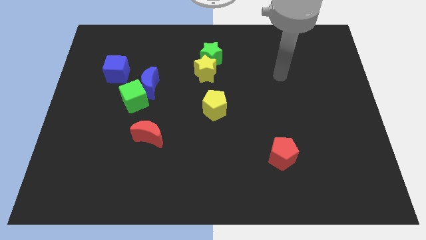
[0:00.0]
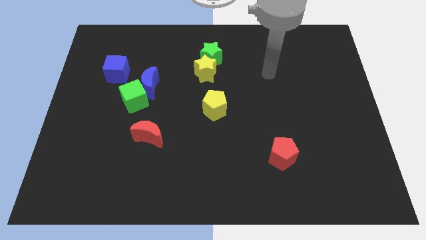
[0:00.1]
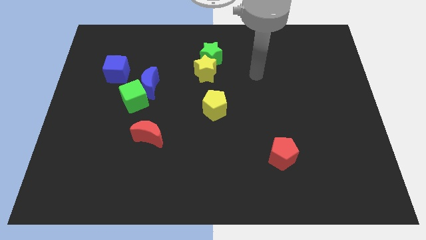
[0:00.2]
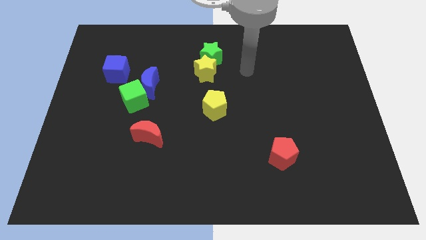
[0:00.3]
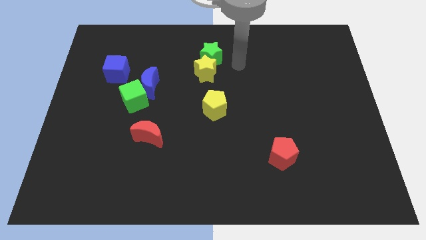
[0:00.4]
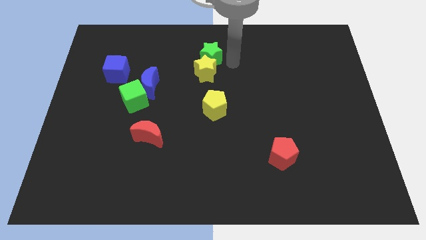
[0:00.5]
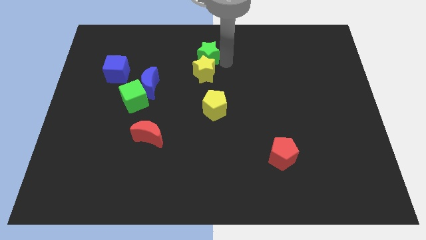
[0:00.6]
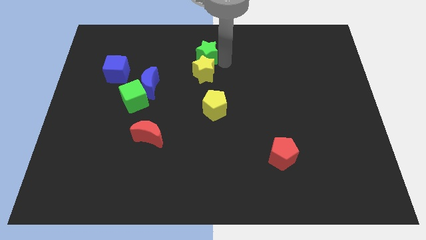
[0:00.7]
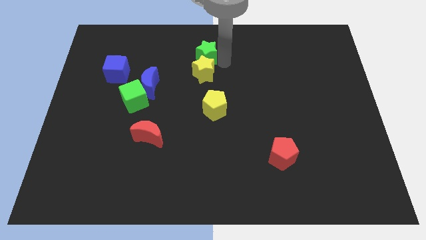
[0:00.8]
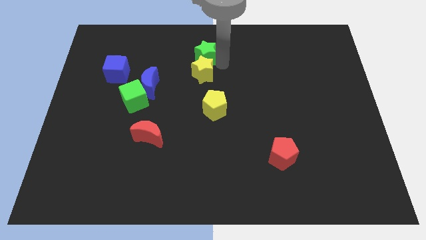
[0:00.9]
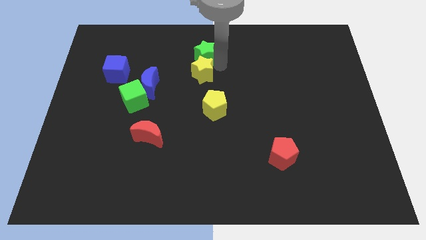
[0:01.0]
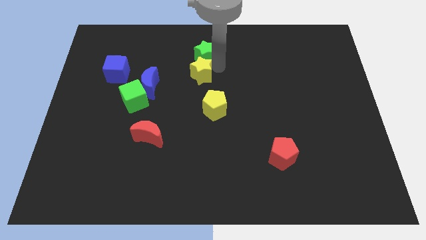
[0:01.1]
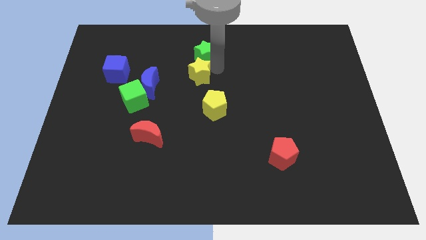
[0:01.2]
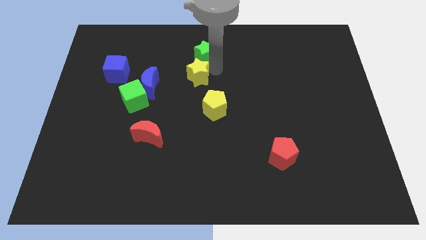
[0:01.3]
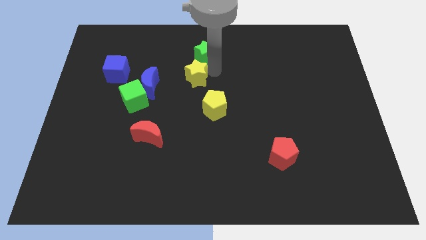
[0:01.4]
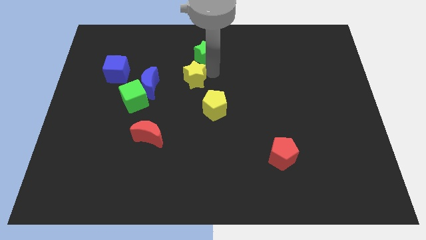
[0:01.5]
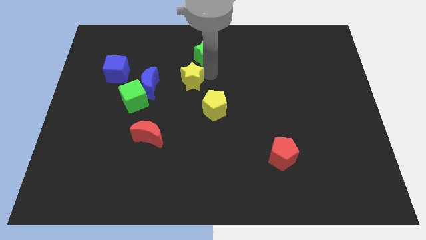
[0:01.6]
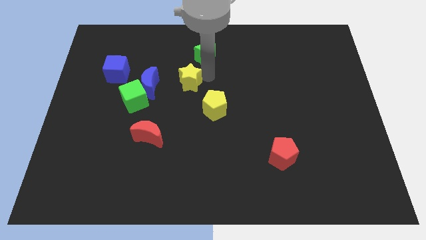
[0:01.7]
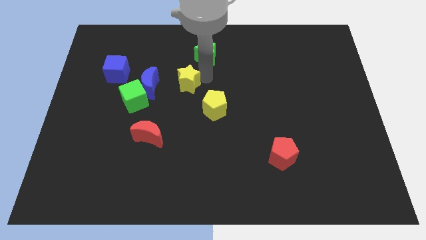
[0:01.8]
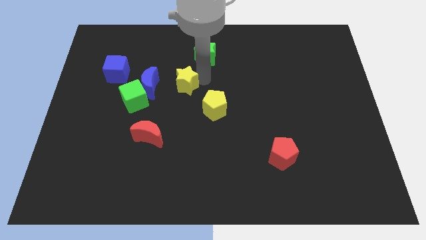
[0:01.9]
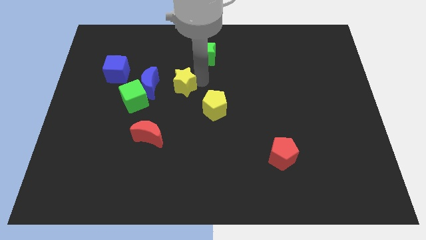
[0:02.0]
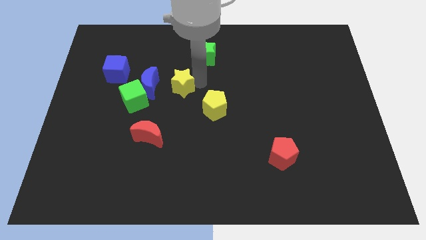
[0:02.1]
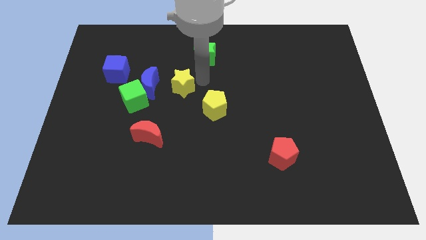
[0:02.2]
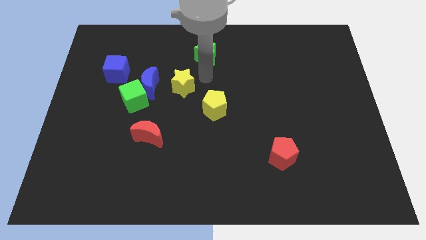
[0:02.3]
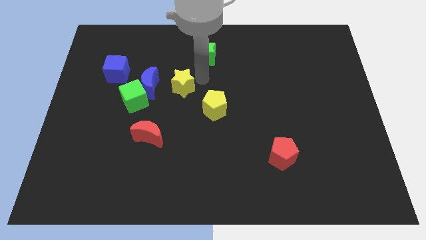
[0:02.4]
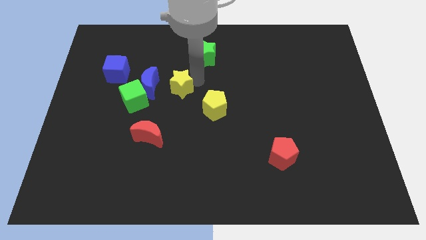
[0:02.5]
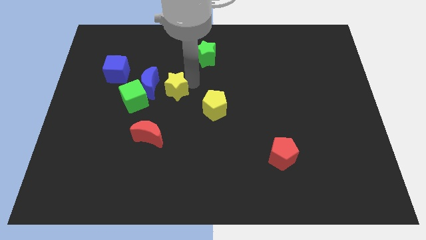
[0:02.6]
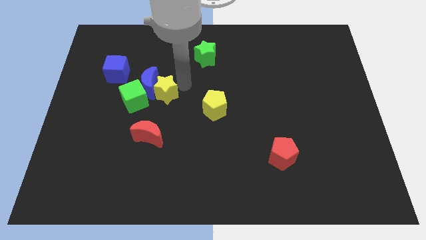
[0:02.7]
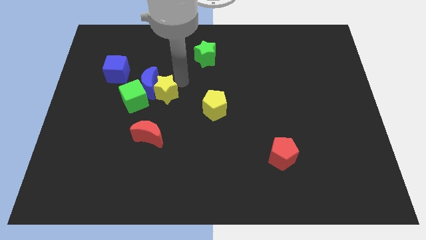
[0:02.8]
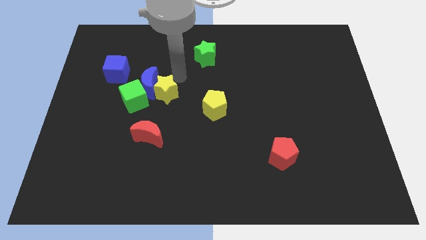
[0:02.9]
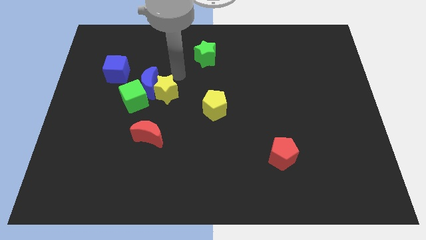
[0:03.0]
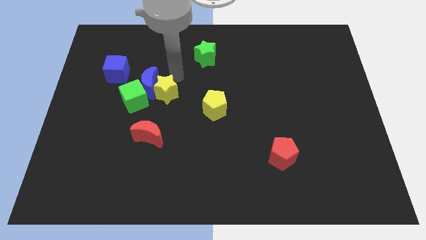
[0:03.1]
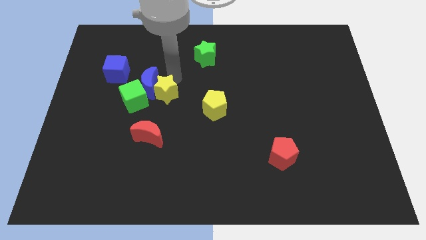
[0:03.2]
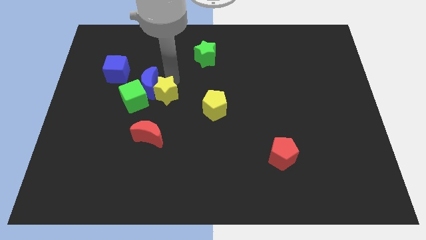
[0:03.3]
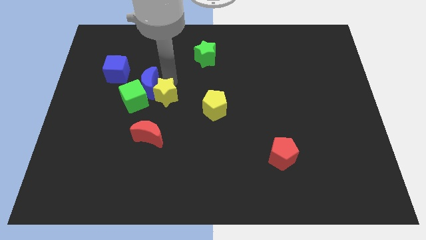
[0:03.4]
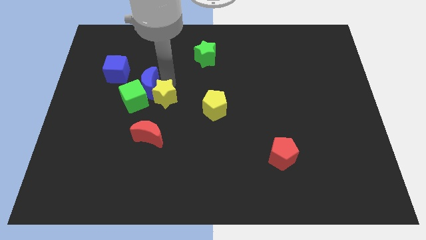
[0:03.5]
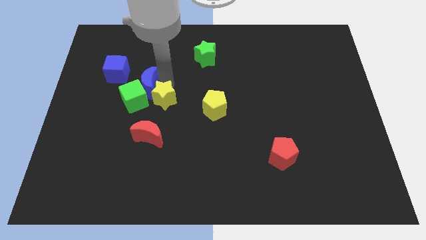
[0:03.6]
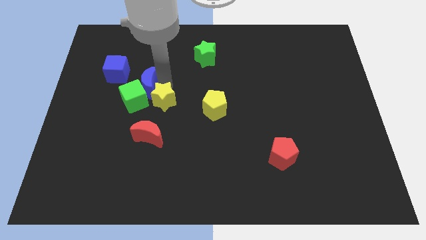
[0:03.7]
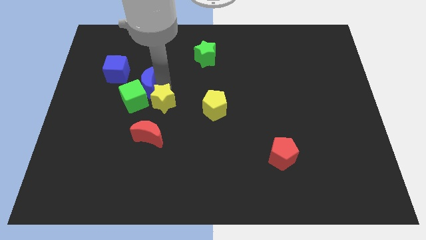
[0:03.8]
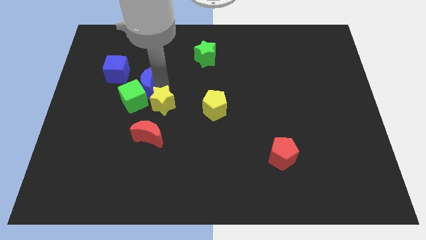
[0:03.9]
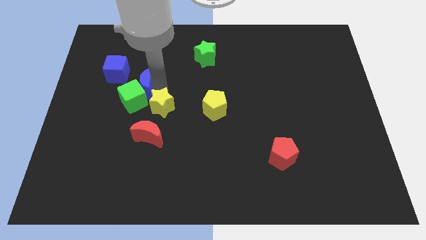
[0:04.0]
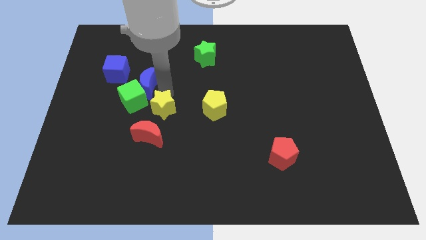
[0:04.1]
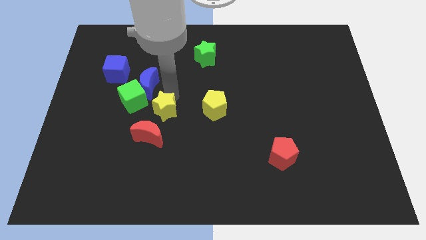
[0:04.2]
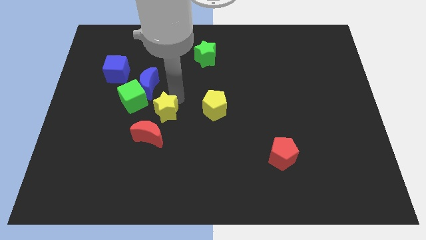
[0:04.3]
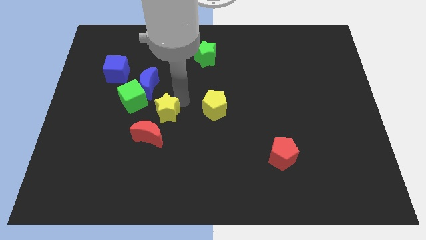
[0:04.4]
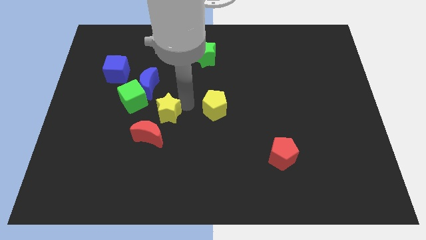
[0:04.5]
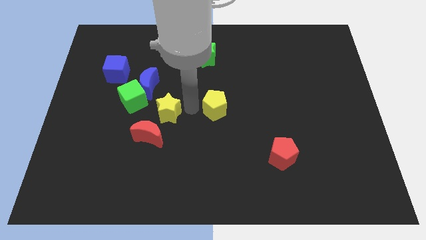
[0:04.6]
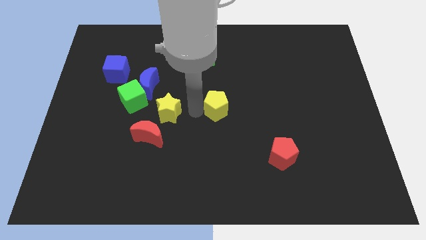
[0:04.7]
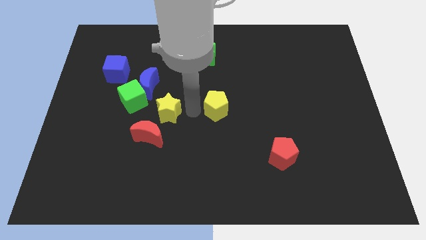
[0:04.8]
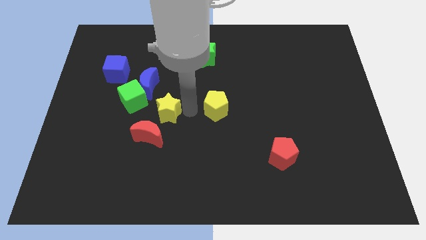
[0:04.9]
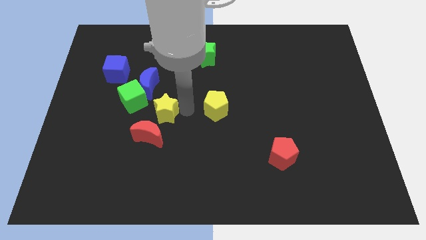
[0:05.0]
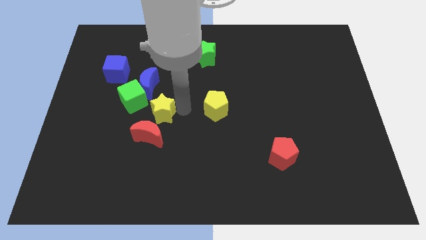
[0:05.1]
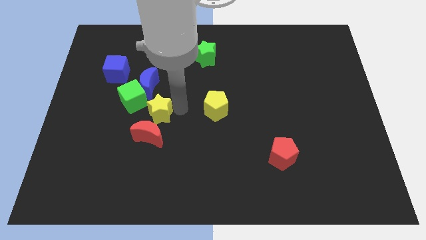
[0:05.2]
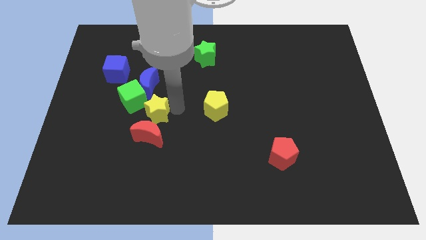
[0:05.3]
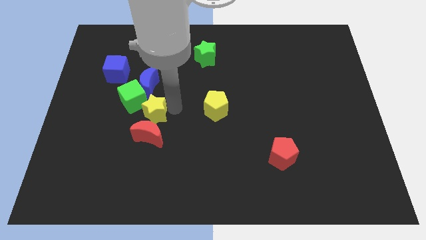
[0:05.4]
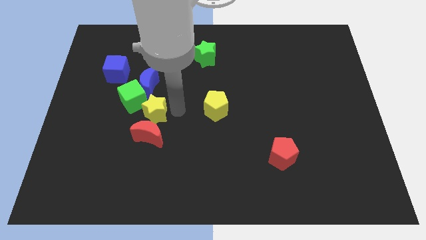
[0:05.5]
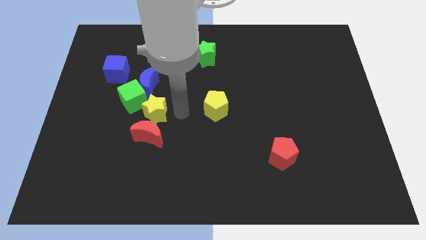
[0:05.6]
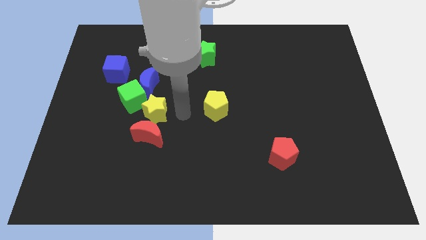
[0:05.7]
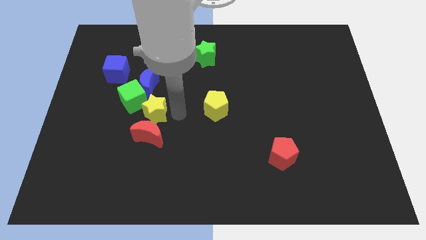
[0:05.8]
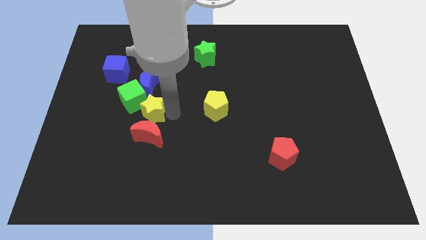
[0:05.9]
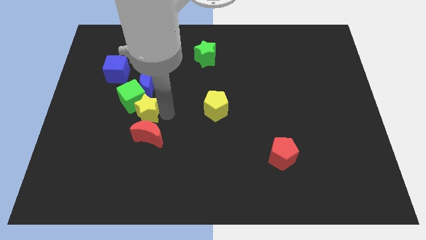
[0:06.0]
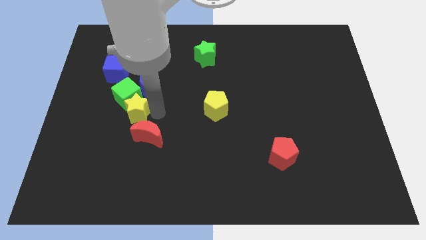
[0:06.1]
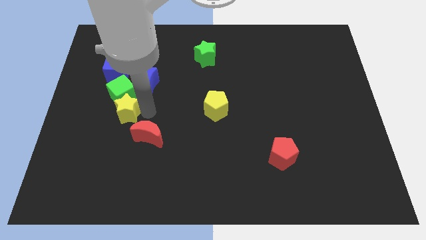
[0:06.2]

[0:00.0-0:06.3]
put the yellow star to the bottom left of the green cube
